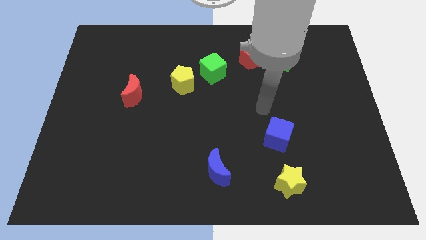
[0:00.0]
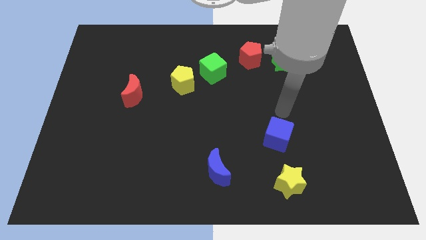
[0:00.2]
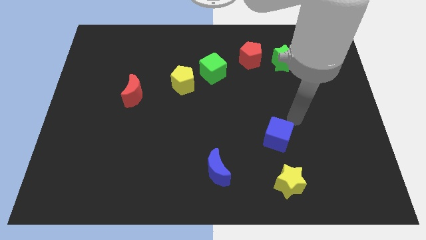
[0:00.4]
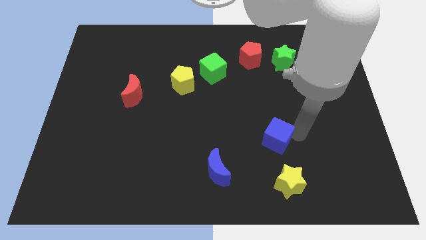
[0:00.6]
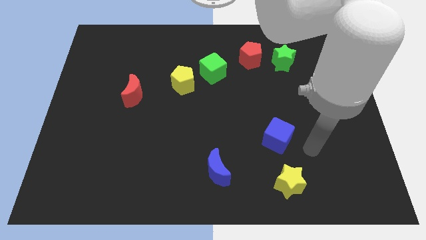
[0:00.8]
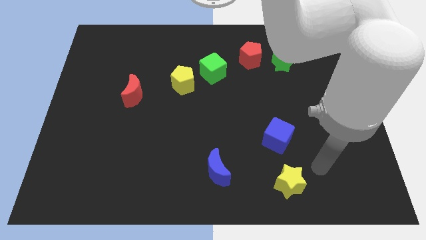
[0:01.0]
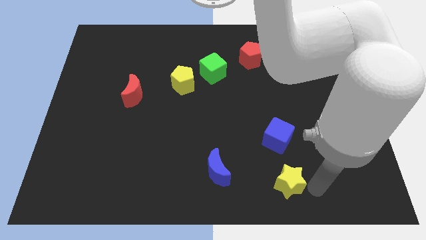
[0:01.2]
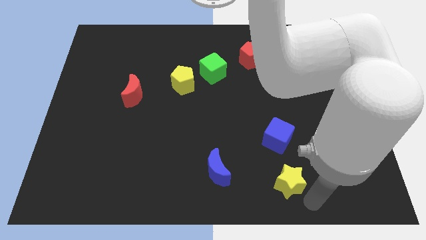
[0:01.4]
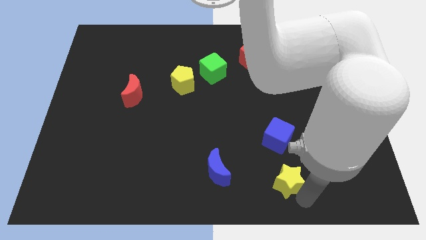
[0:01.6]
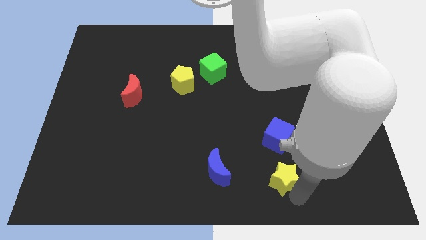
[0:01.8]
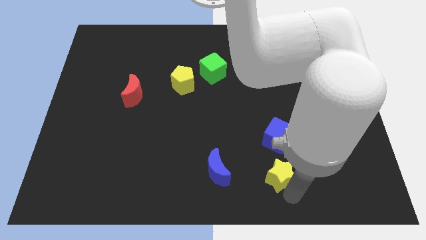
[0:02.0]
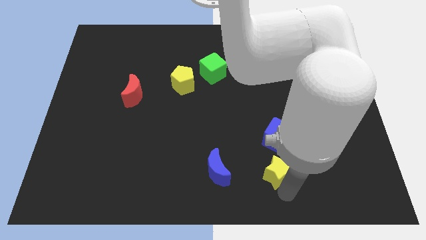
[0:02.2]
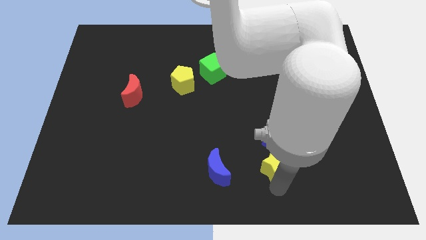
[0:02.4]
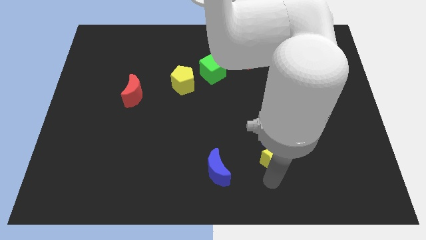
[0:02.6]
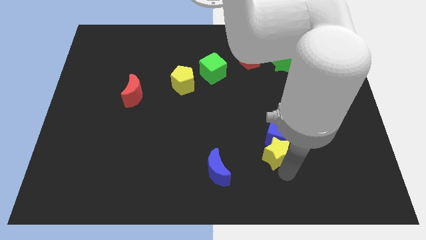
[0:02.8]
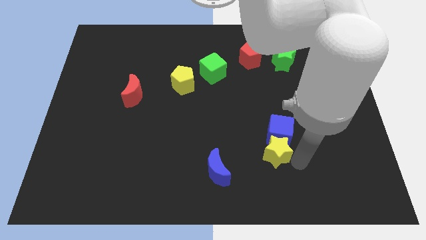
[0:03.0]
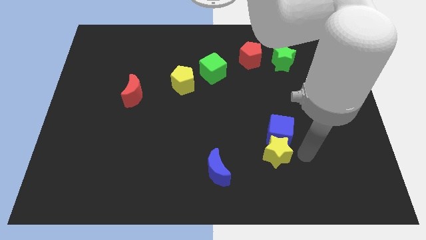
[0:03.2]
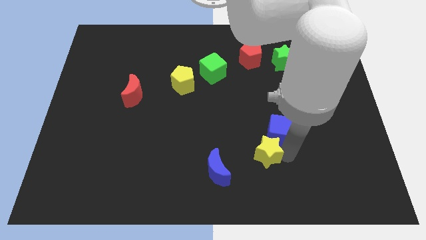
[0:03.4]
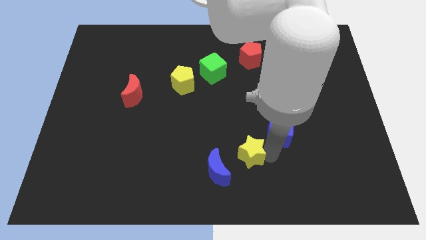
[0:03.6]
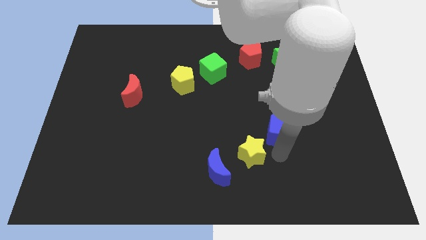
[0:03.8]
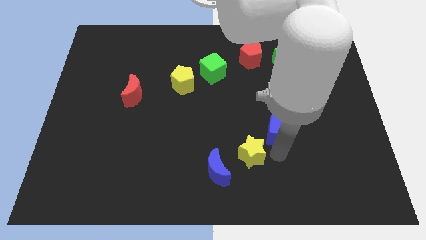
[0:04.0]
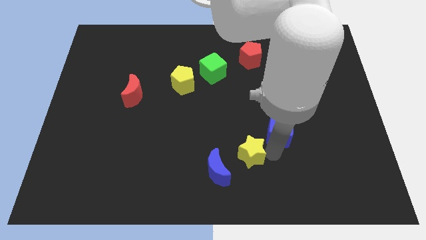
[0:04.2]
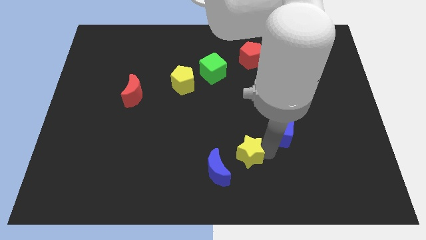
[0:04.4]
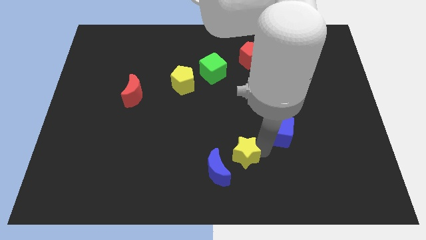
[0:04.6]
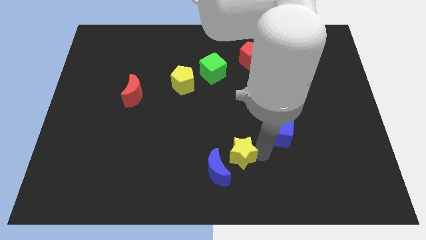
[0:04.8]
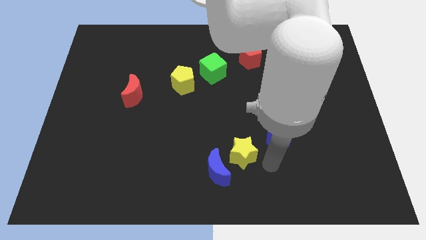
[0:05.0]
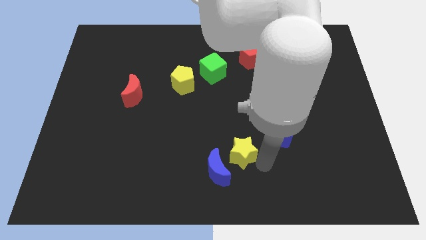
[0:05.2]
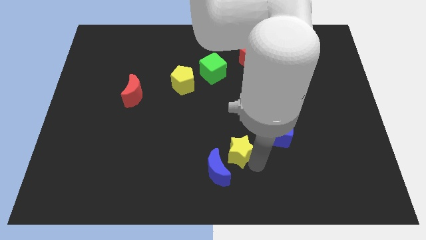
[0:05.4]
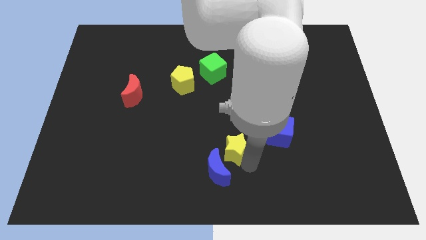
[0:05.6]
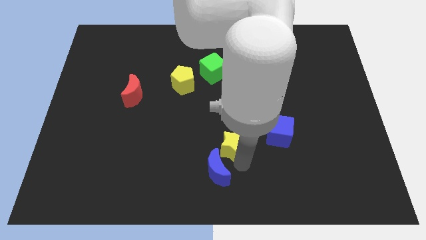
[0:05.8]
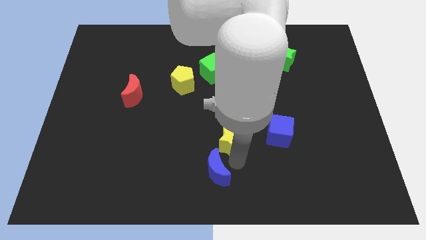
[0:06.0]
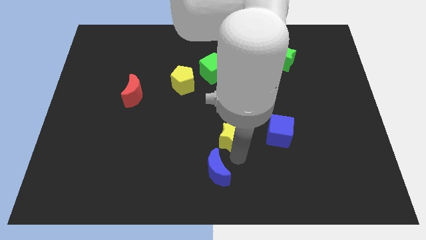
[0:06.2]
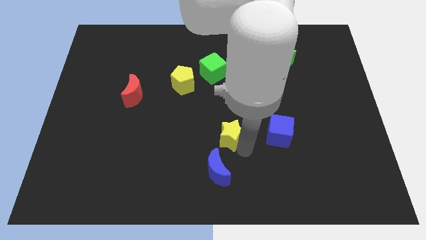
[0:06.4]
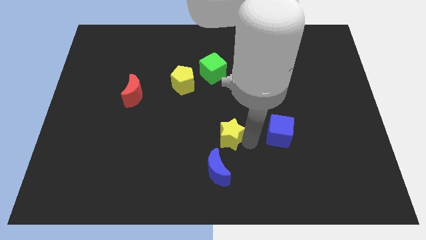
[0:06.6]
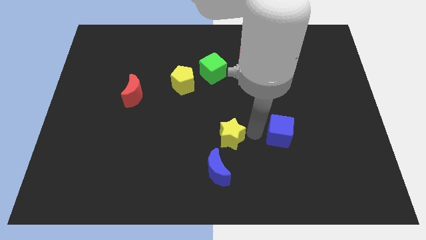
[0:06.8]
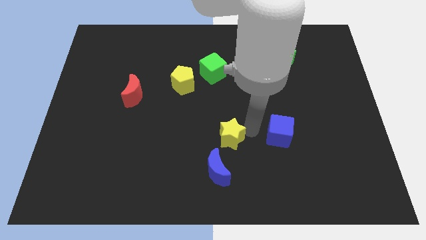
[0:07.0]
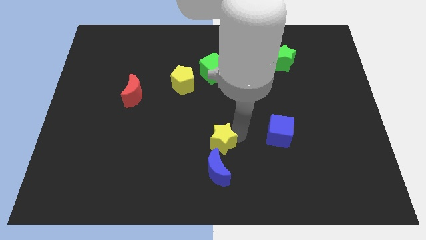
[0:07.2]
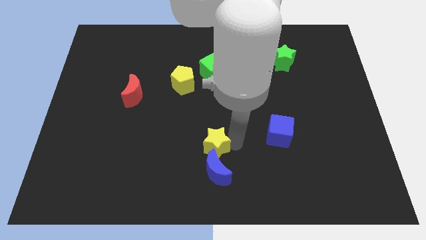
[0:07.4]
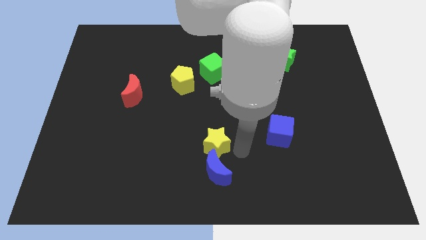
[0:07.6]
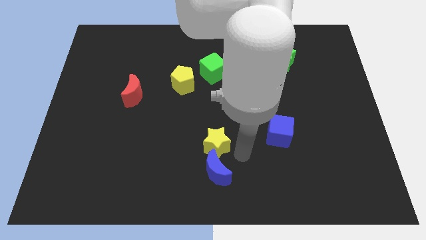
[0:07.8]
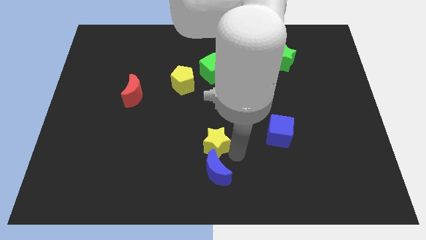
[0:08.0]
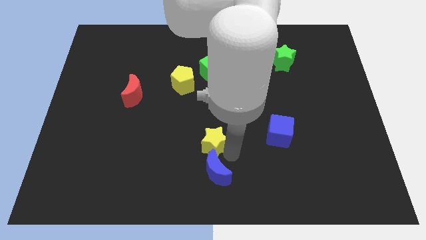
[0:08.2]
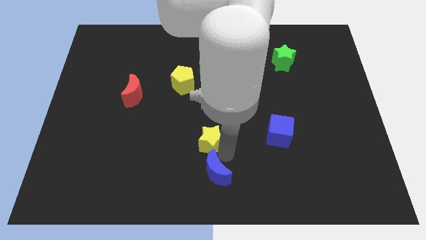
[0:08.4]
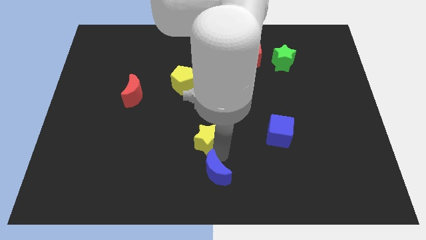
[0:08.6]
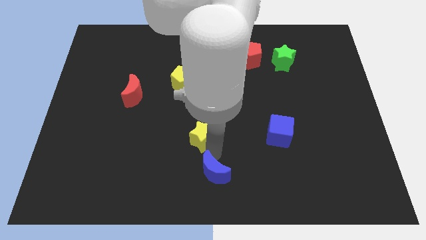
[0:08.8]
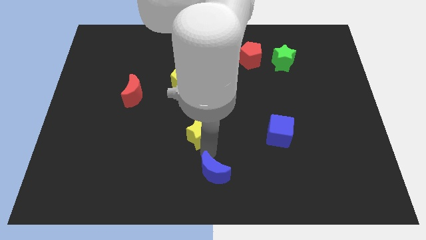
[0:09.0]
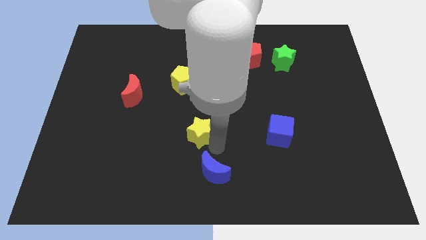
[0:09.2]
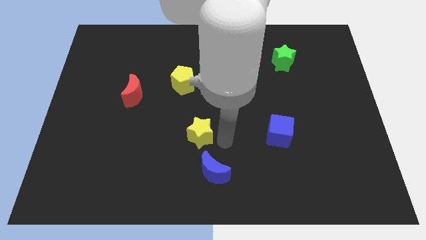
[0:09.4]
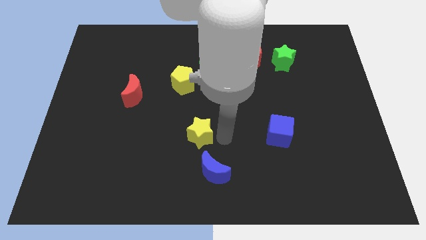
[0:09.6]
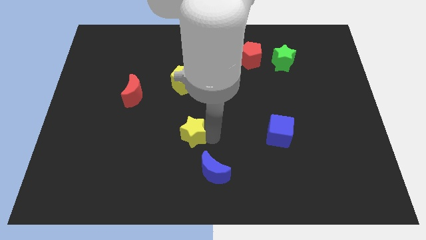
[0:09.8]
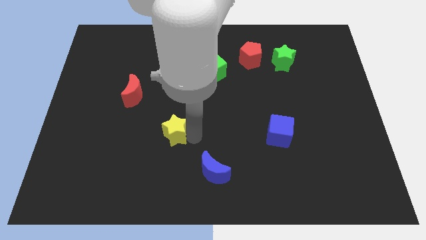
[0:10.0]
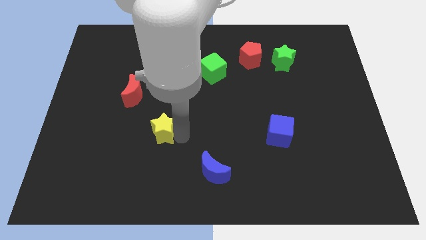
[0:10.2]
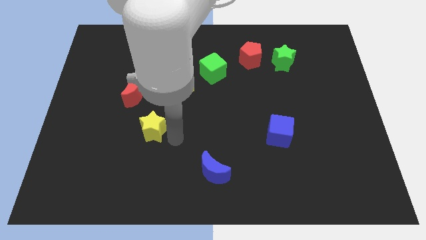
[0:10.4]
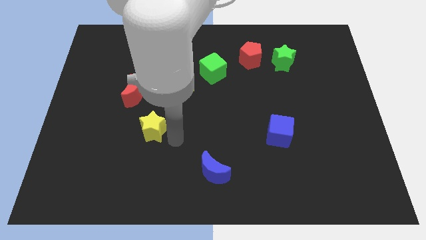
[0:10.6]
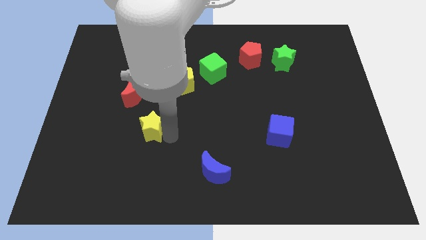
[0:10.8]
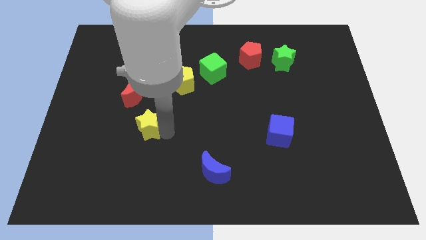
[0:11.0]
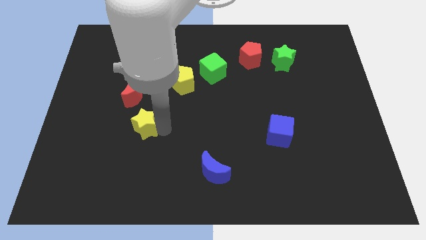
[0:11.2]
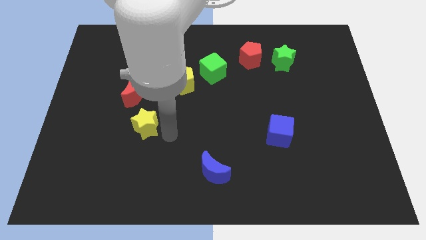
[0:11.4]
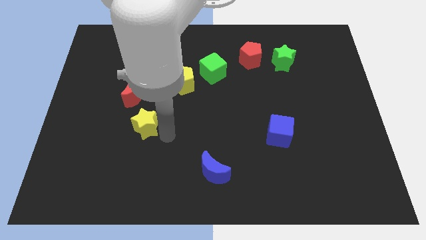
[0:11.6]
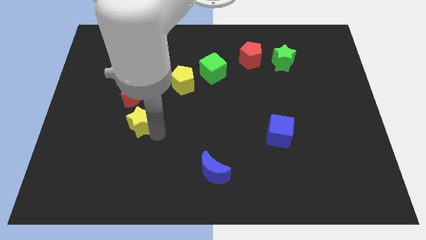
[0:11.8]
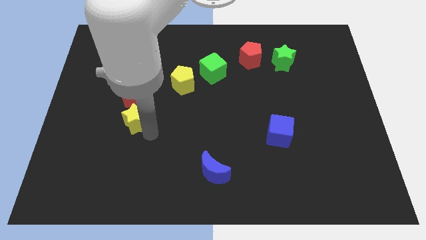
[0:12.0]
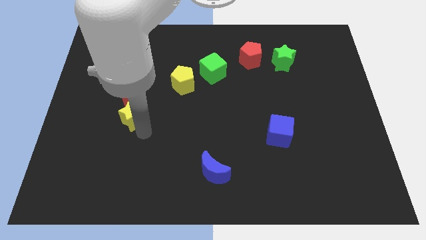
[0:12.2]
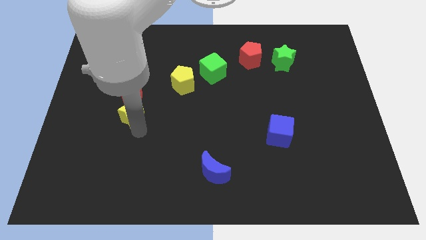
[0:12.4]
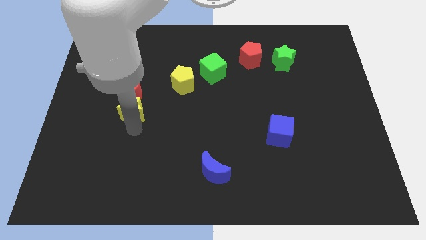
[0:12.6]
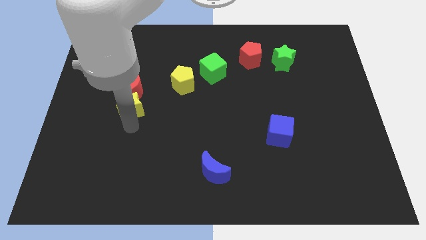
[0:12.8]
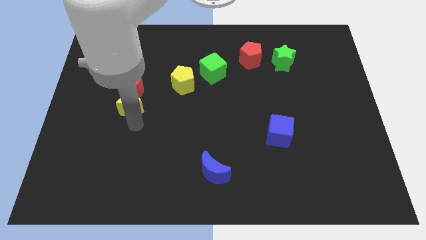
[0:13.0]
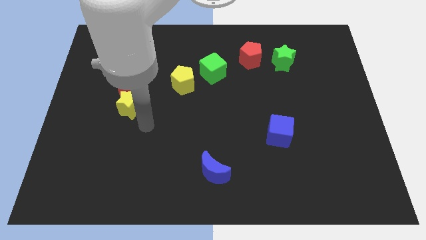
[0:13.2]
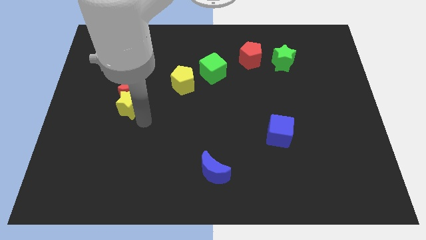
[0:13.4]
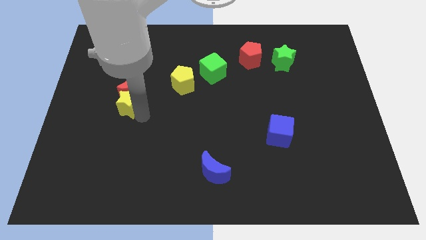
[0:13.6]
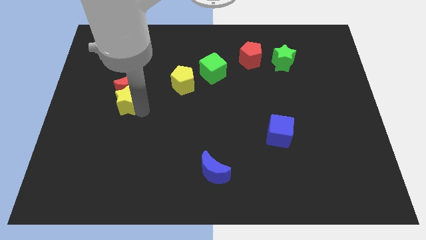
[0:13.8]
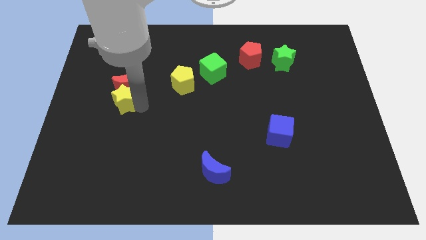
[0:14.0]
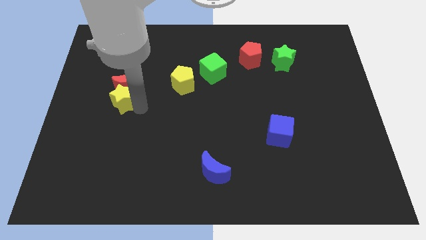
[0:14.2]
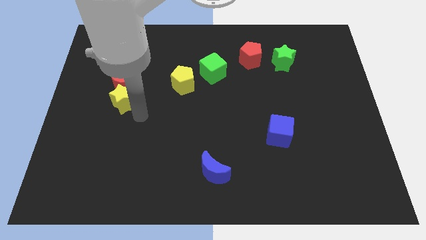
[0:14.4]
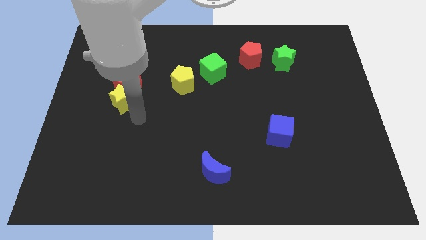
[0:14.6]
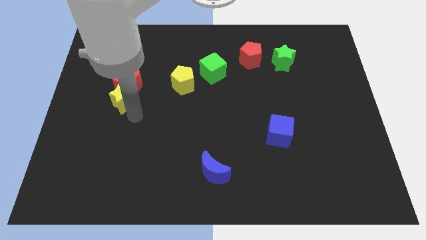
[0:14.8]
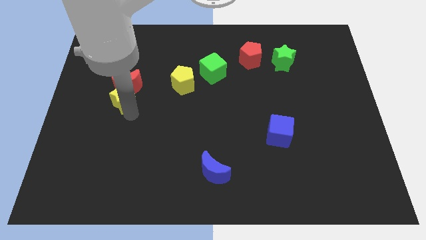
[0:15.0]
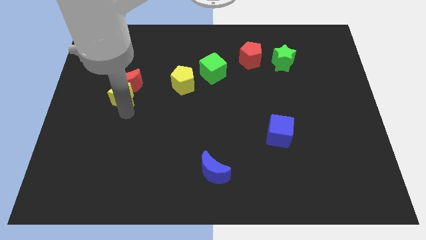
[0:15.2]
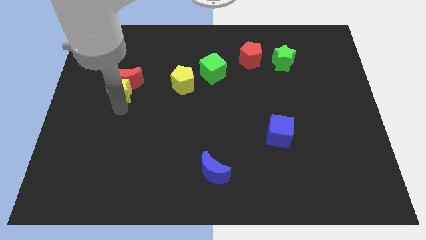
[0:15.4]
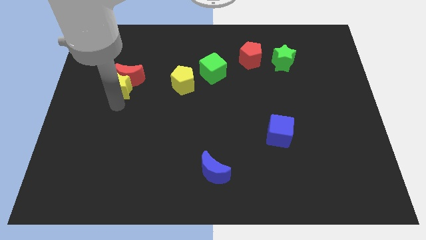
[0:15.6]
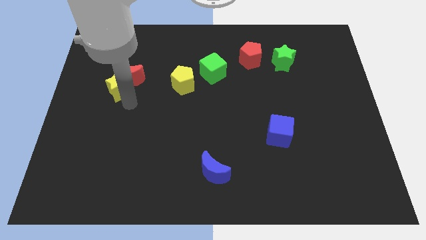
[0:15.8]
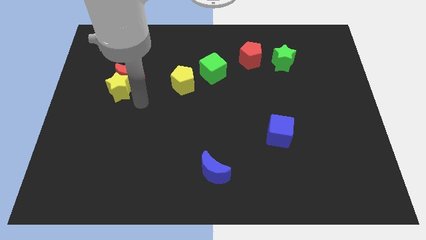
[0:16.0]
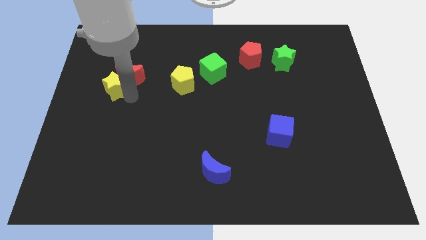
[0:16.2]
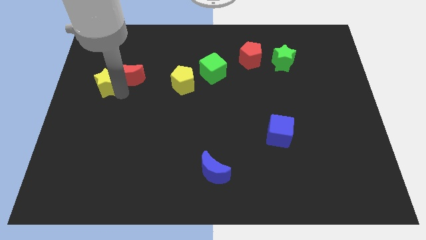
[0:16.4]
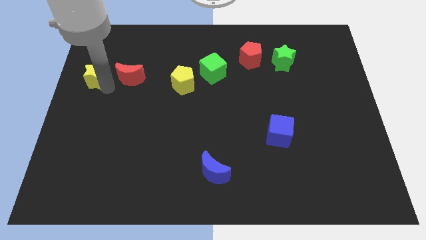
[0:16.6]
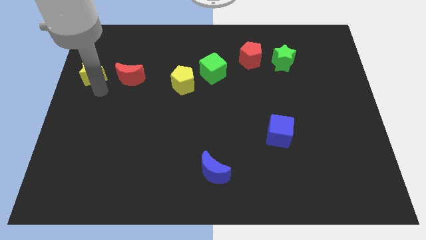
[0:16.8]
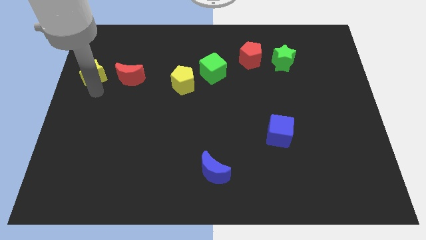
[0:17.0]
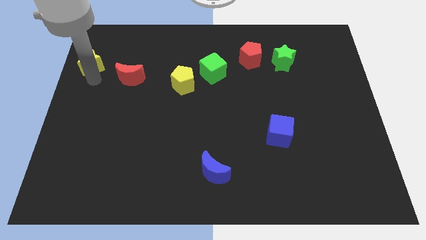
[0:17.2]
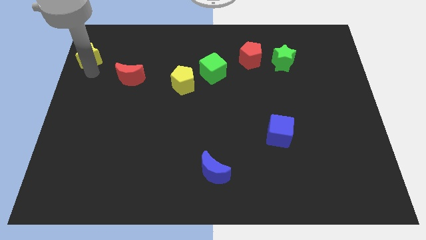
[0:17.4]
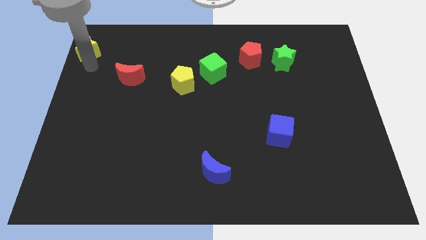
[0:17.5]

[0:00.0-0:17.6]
move the yellow star to the upper left corner
